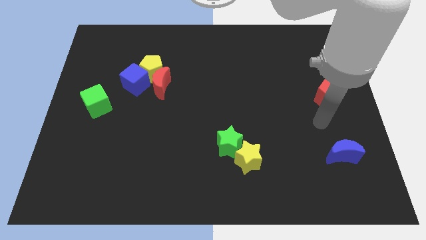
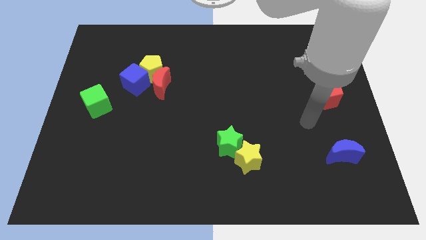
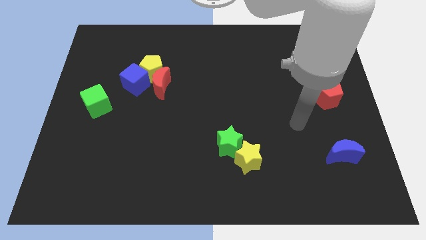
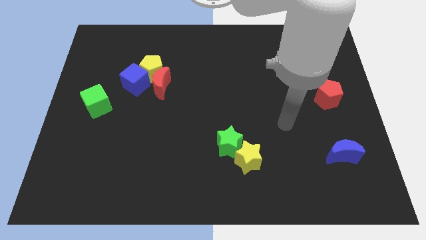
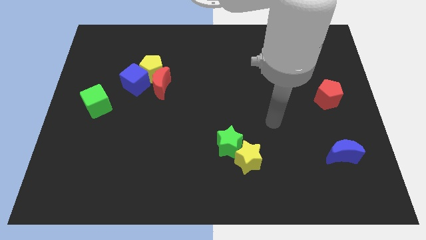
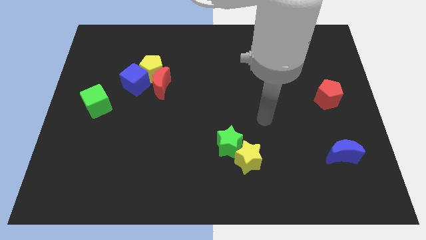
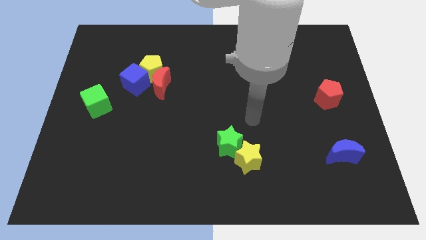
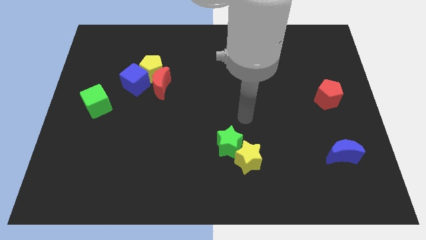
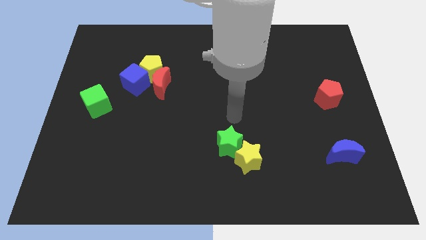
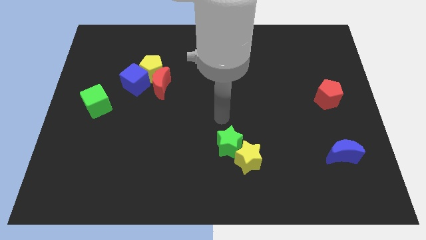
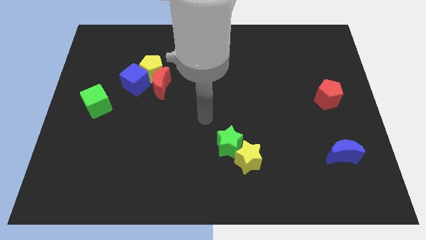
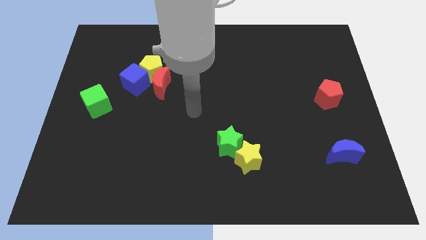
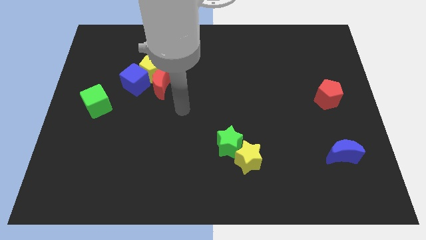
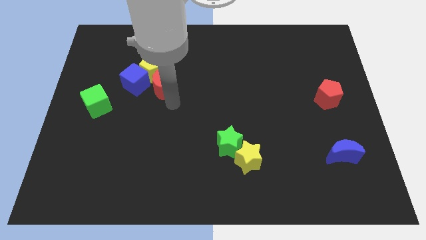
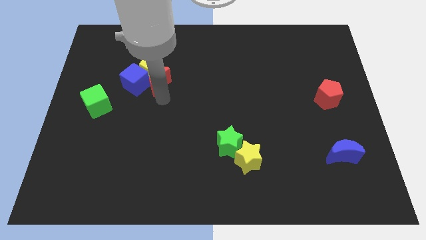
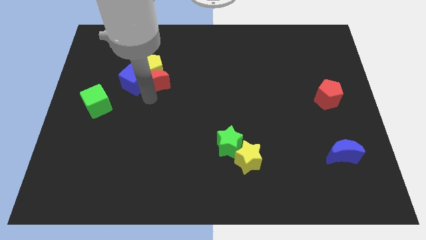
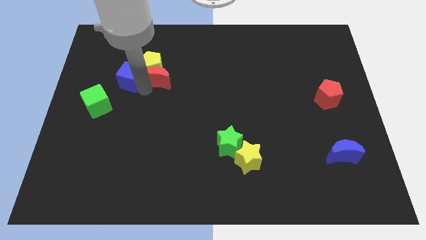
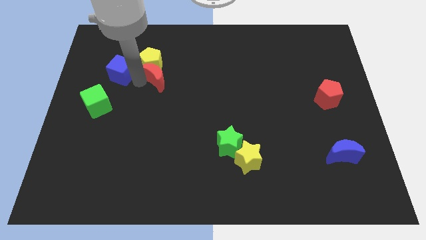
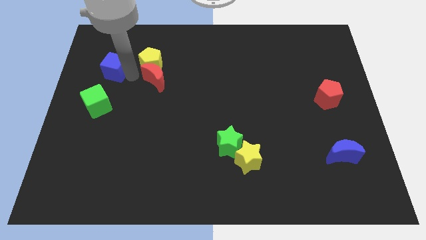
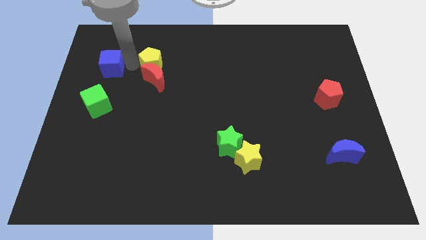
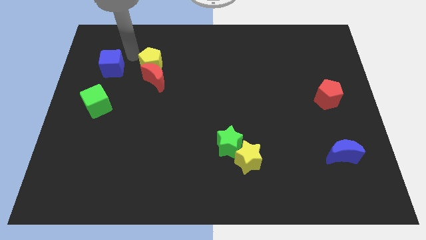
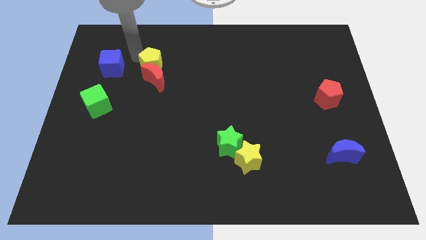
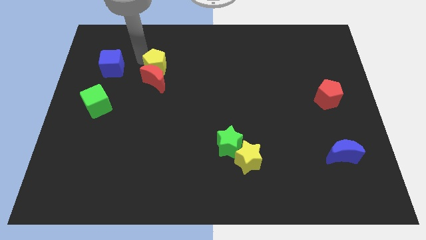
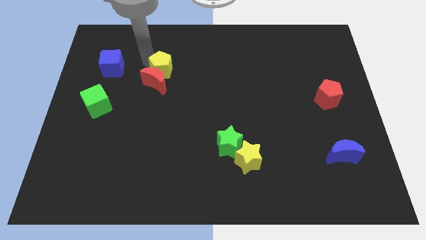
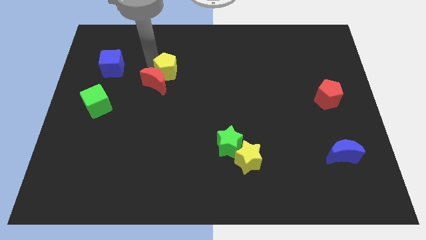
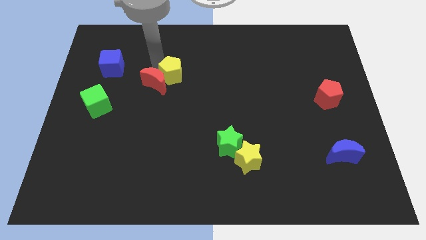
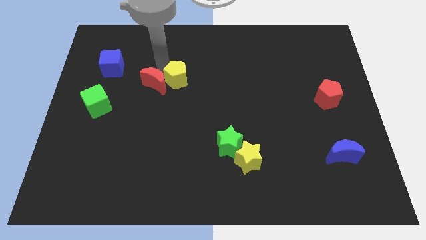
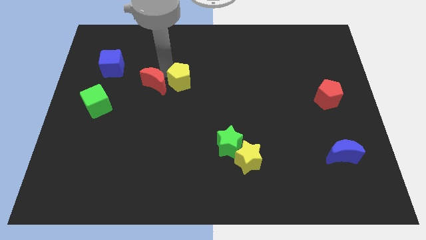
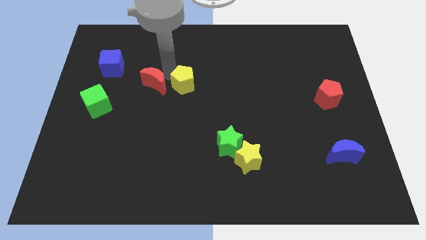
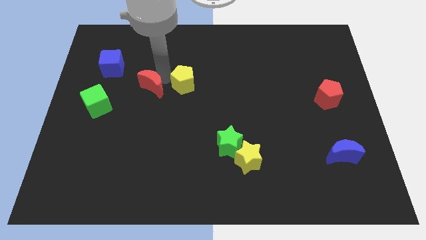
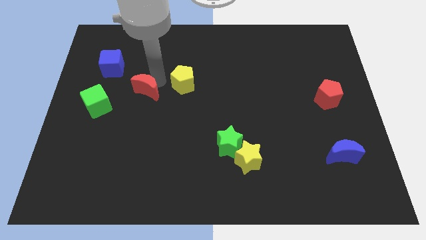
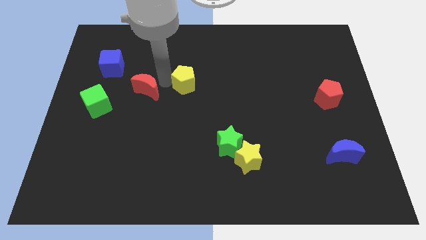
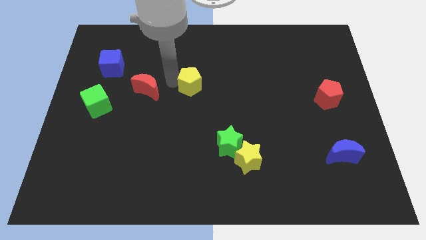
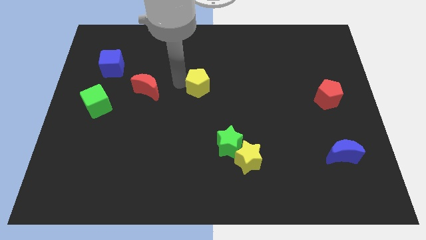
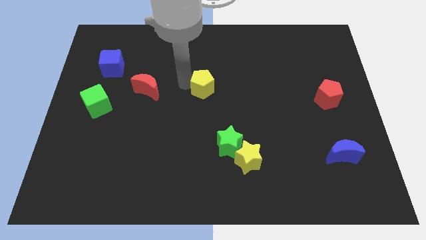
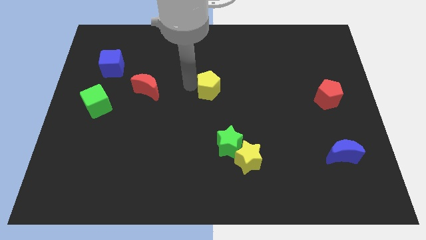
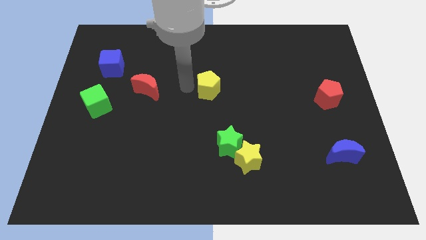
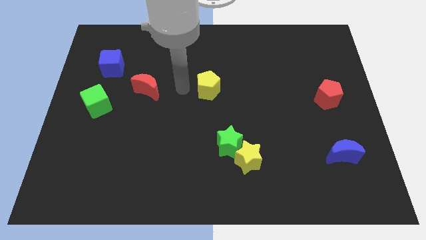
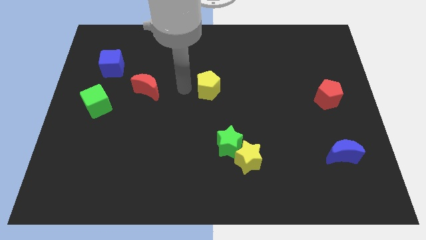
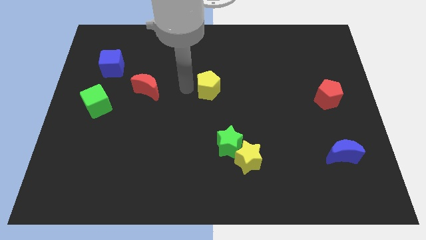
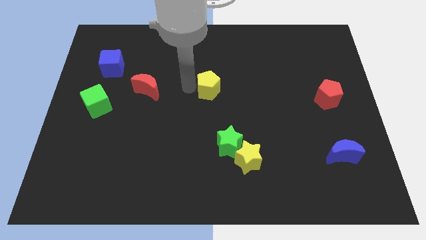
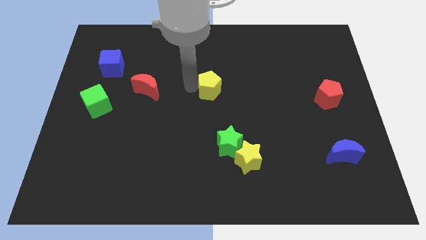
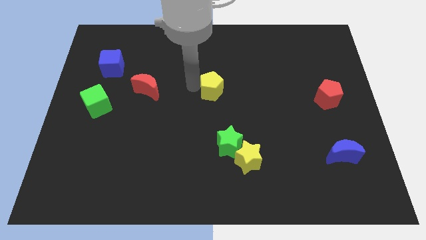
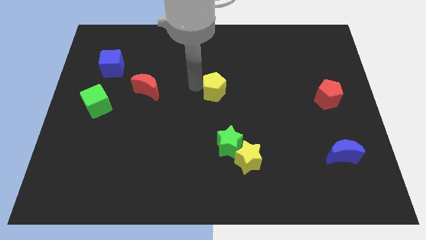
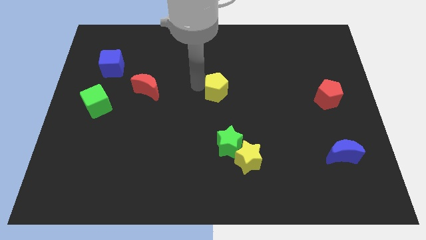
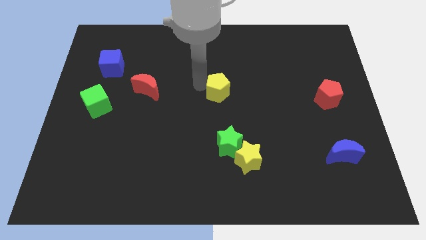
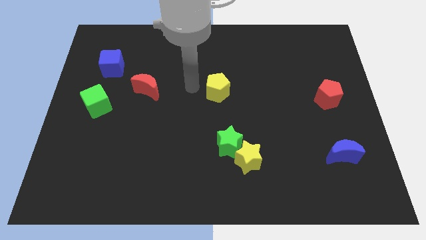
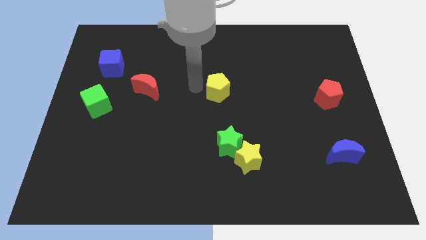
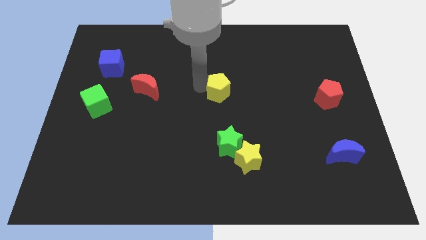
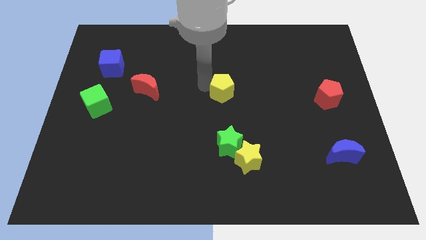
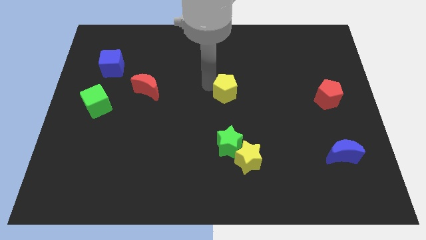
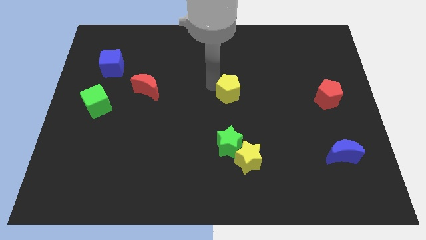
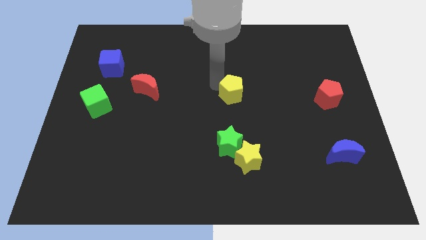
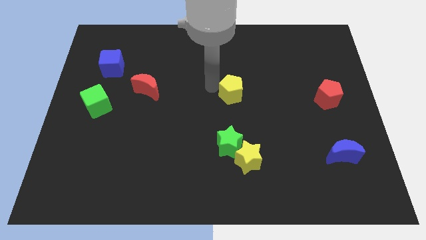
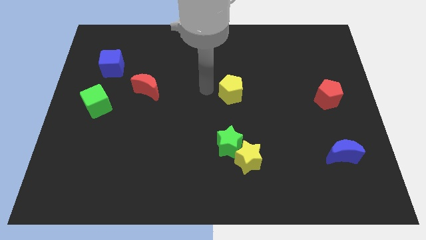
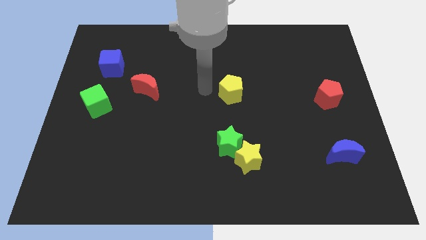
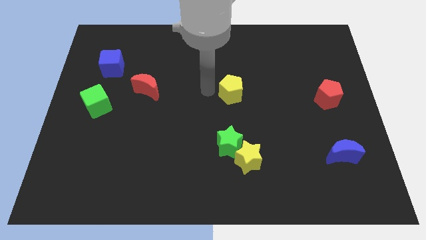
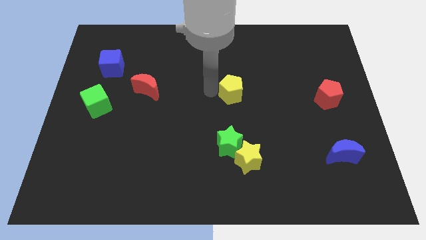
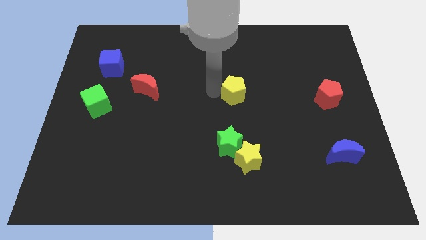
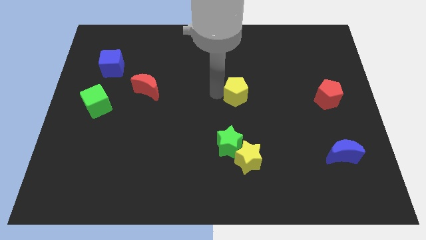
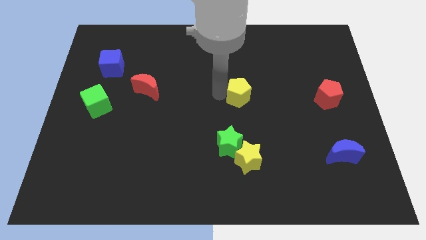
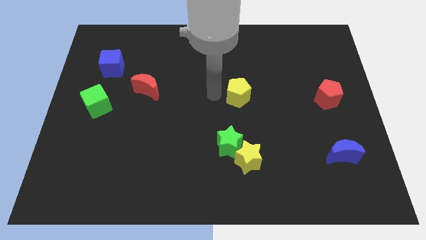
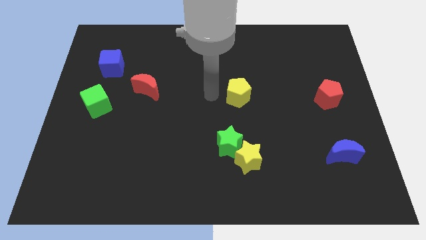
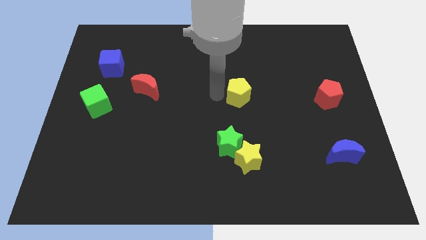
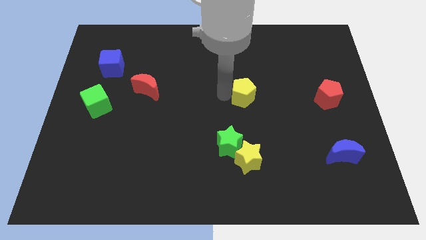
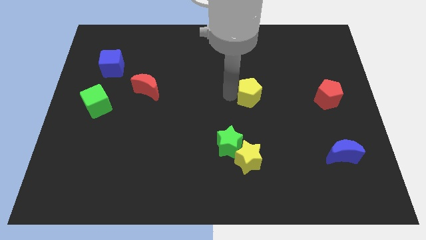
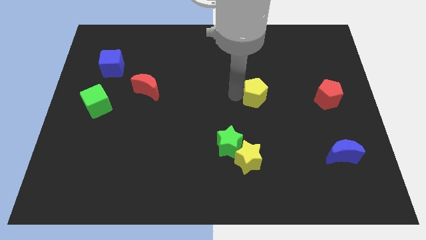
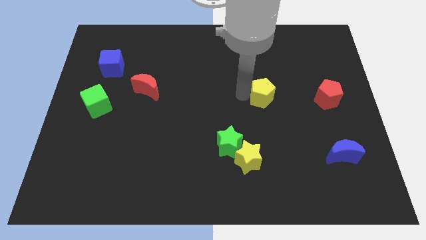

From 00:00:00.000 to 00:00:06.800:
slide the yellow pentagon to the left of the red pentagon
